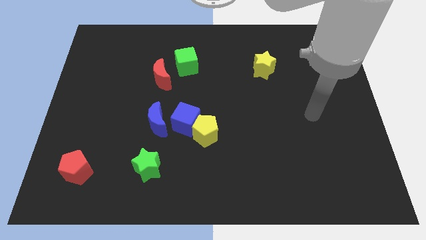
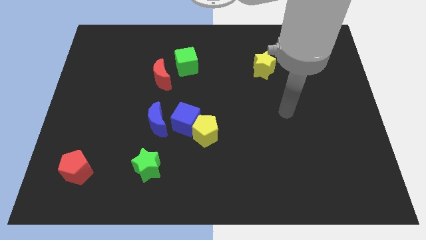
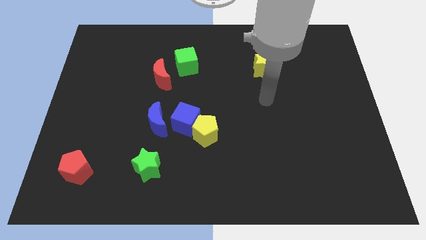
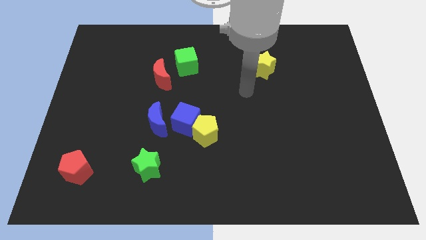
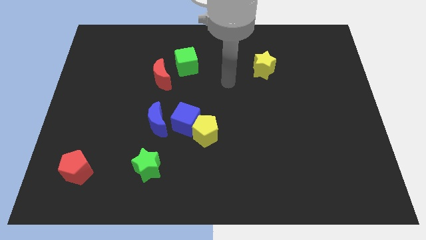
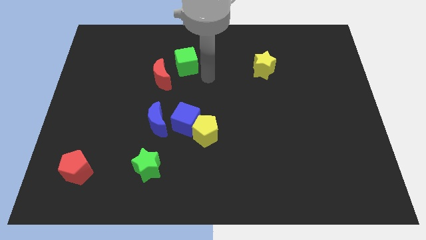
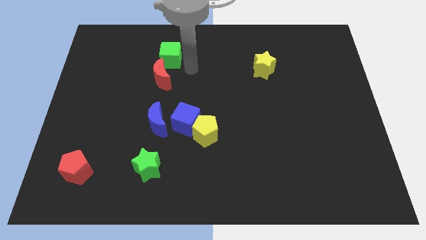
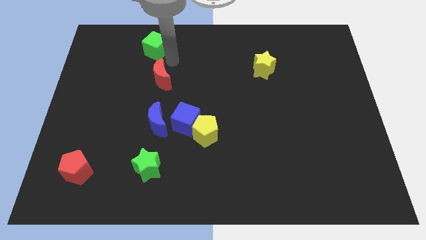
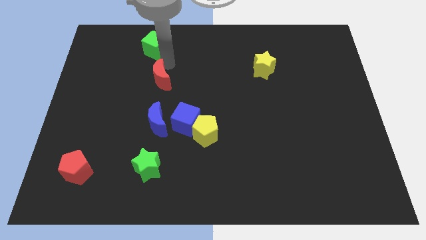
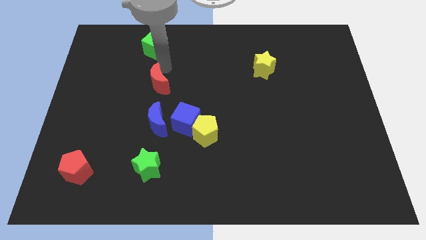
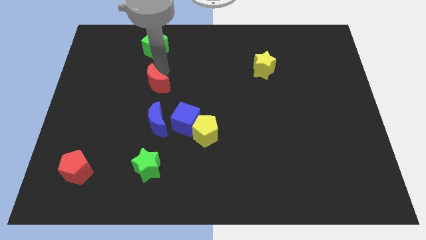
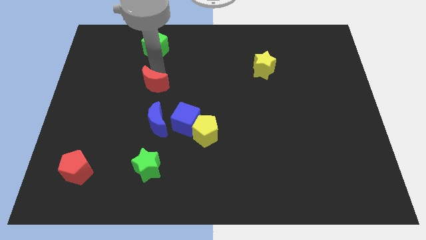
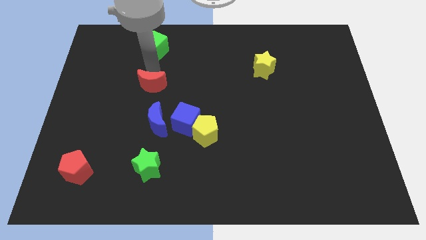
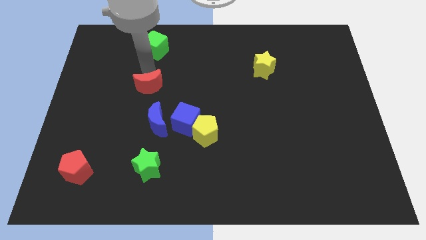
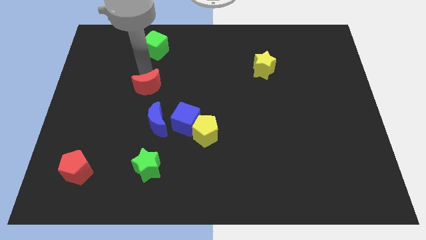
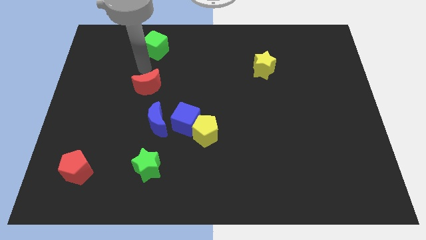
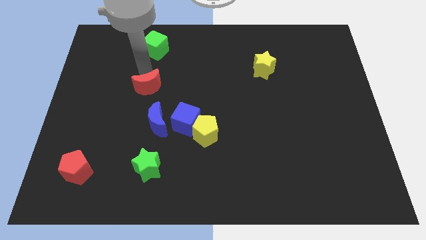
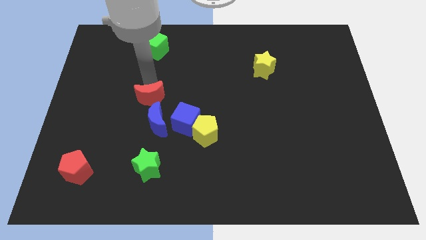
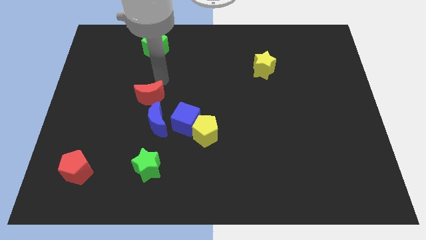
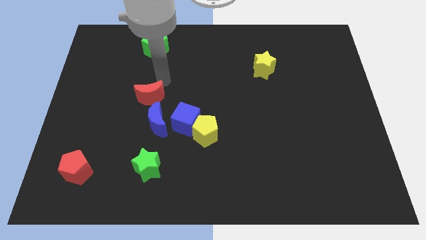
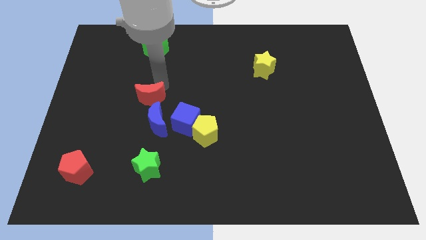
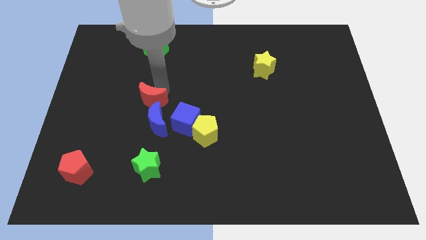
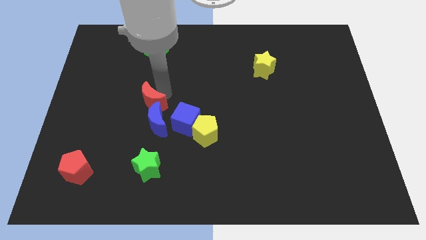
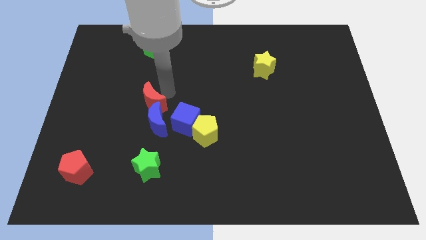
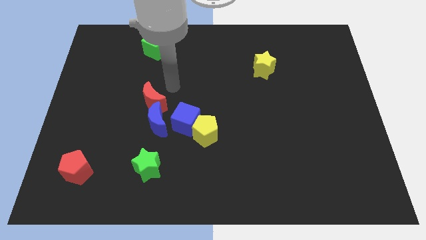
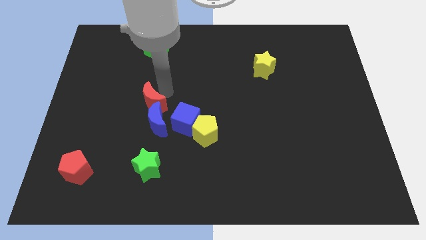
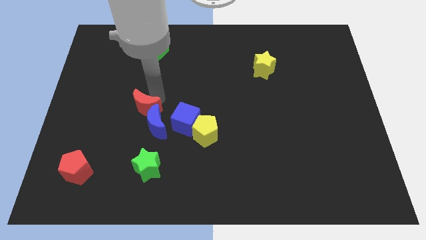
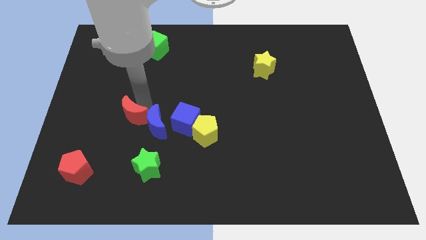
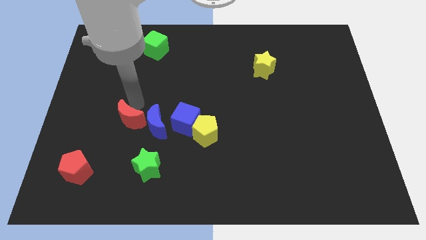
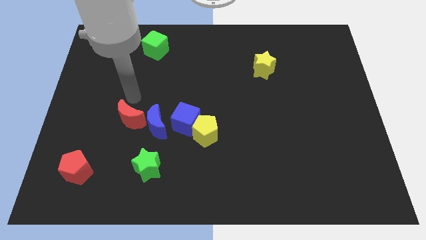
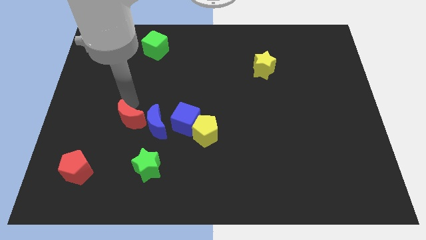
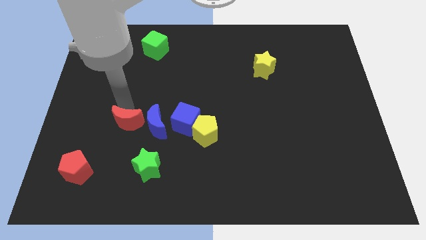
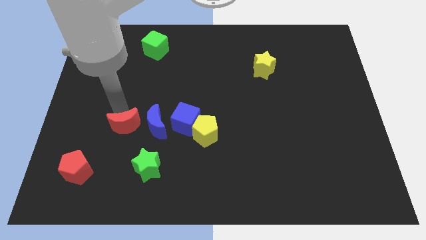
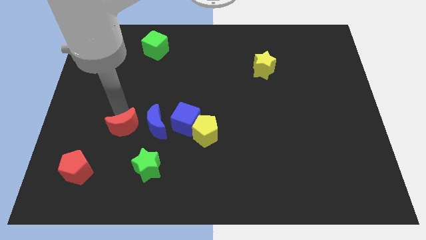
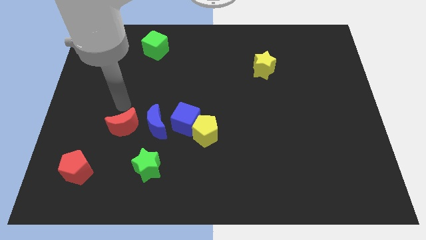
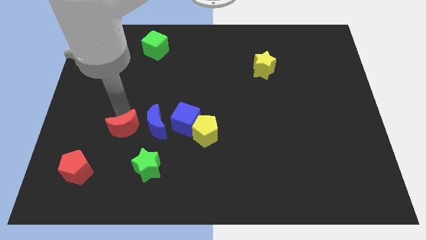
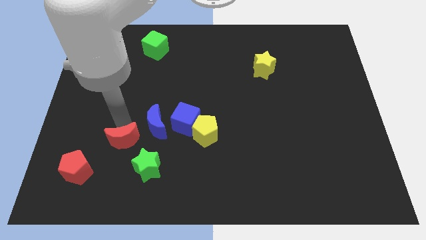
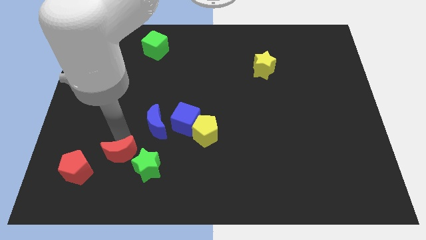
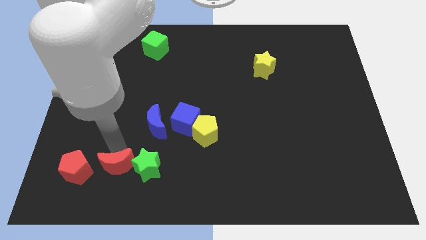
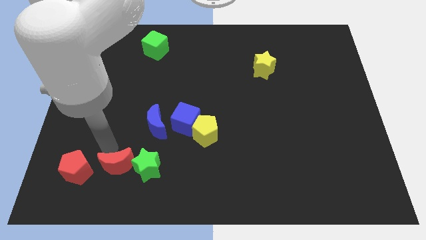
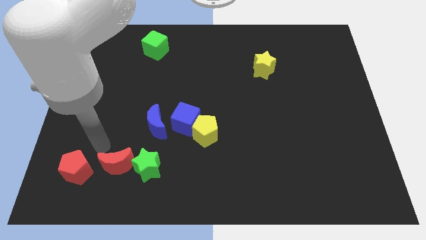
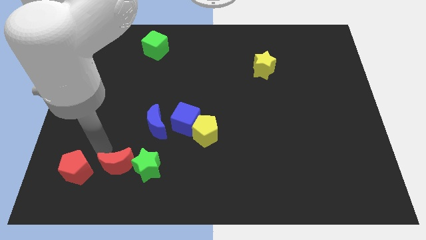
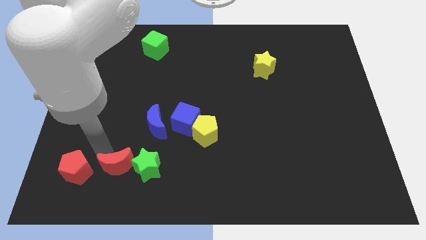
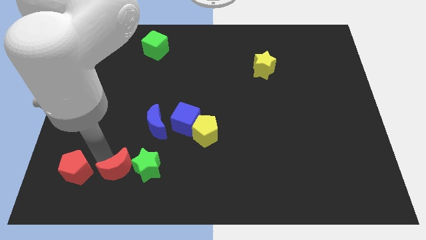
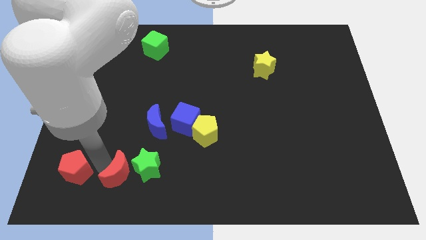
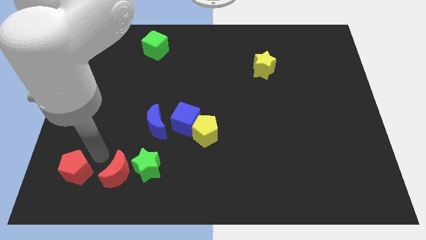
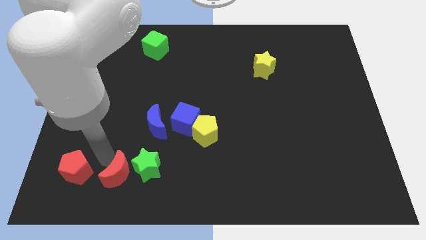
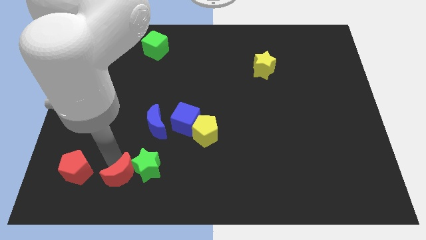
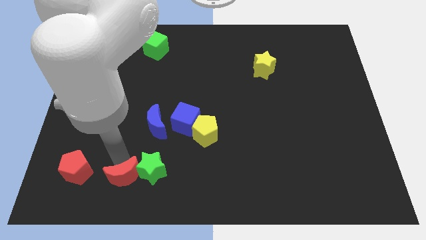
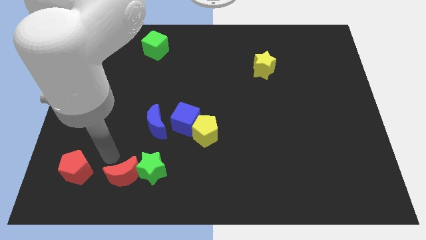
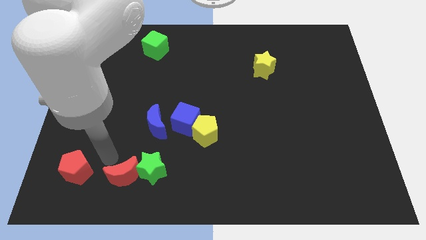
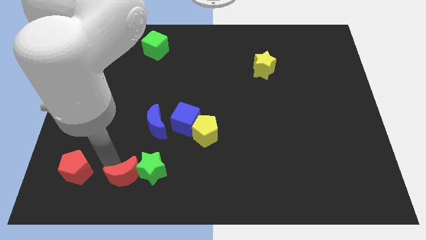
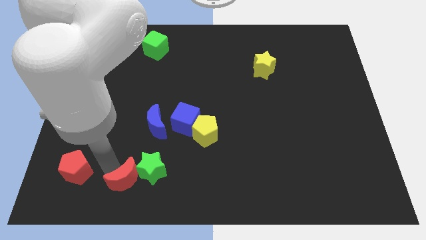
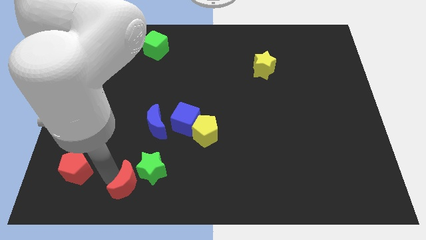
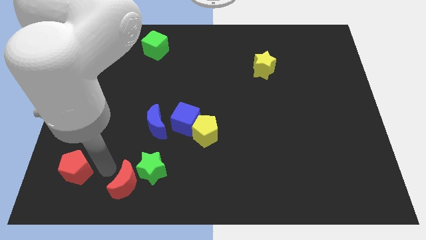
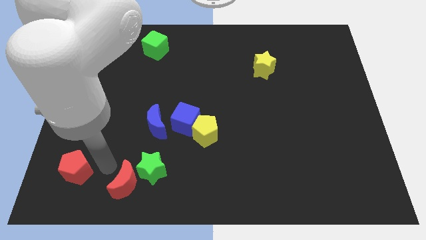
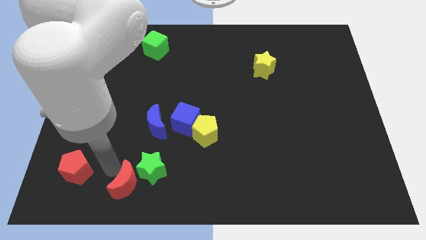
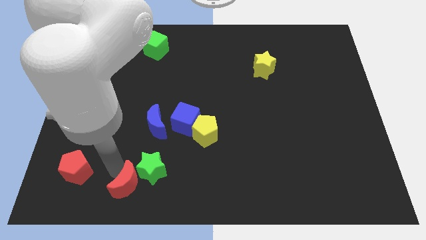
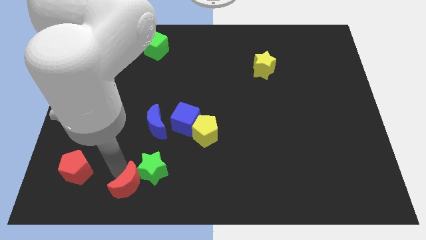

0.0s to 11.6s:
push the red moon below the blue moon

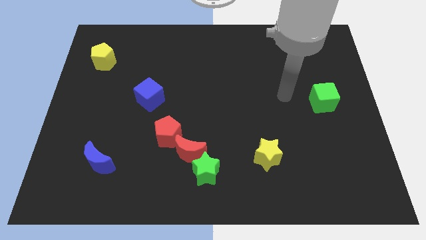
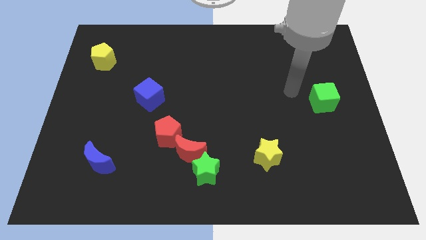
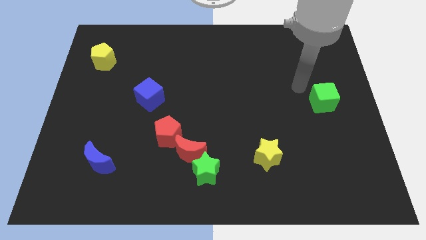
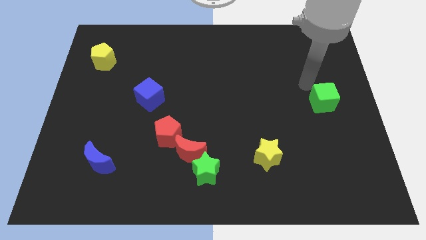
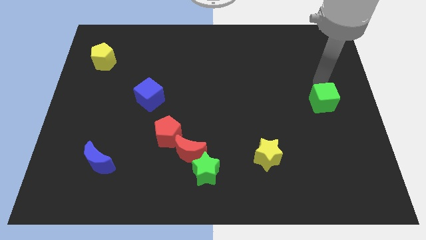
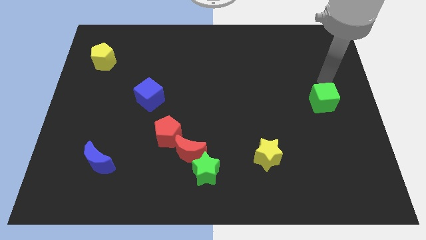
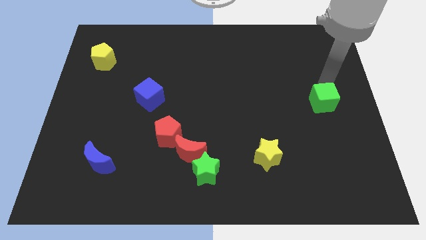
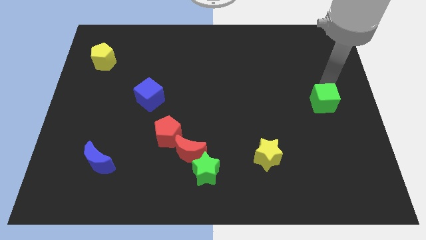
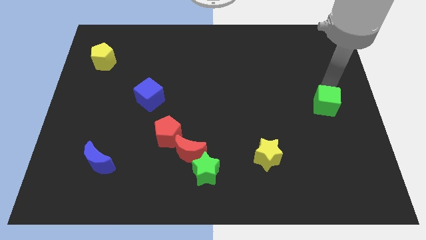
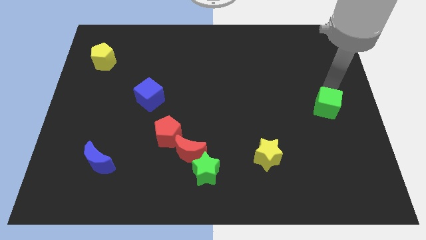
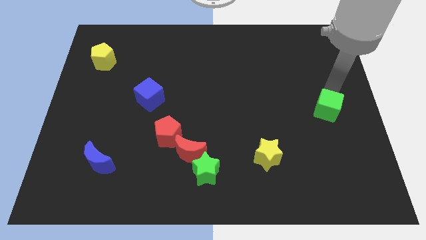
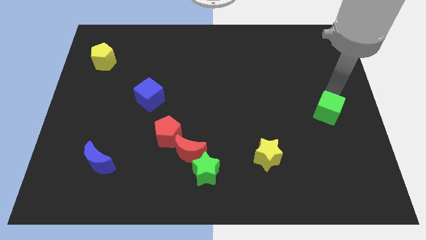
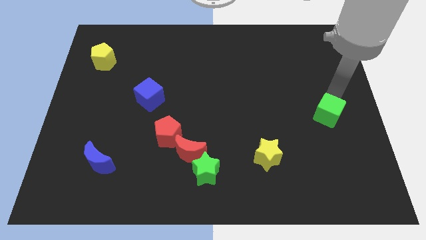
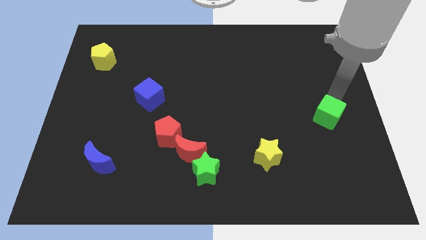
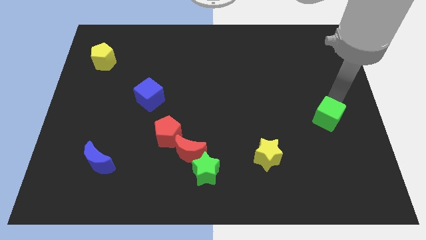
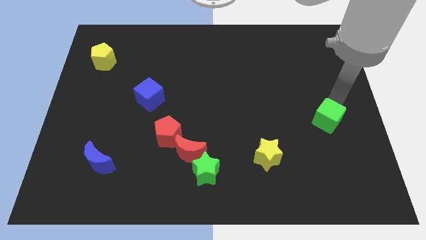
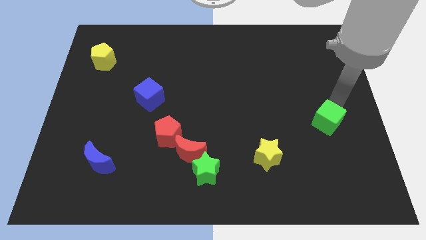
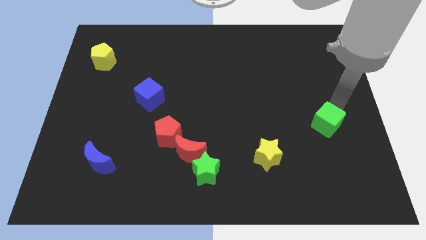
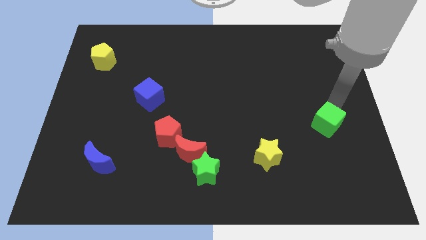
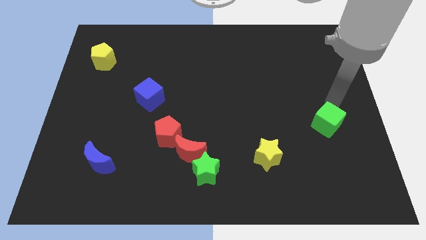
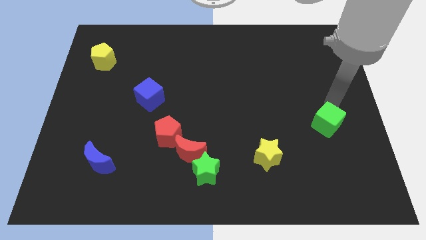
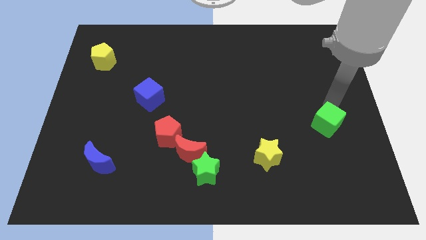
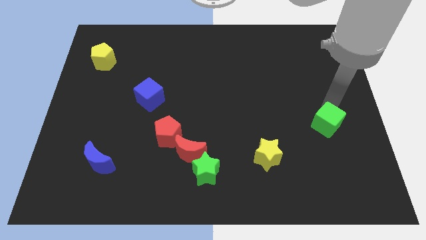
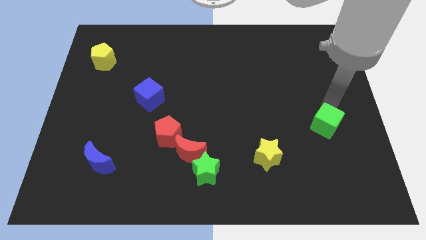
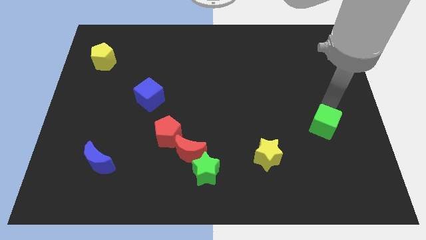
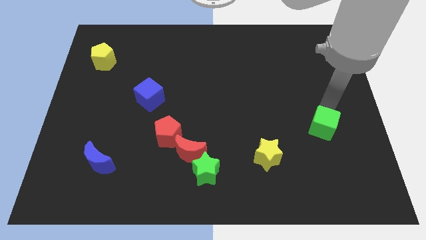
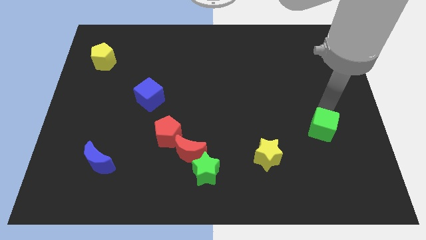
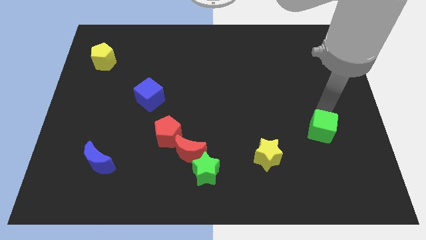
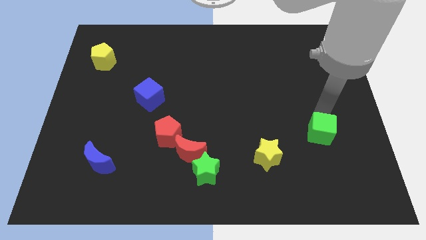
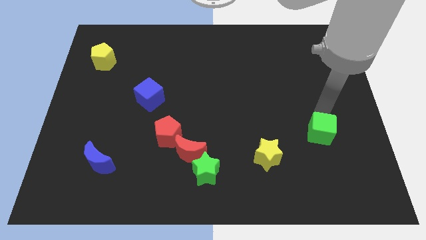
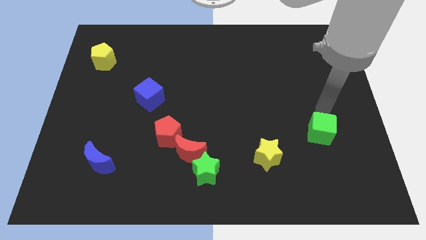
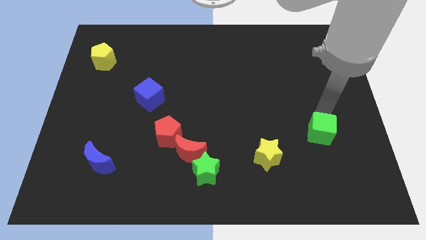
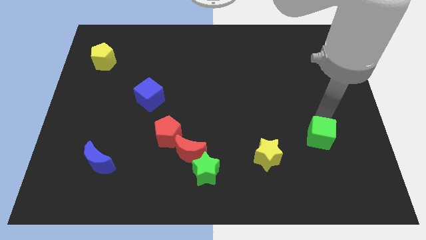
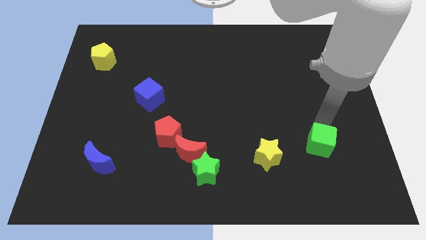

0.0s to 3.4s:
put the green cube to the right of the yellow star
